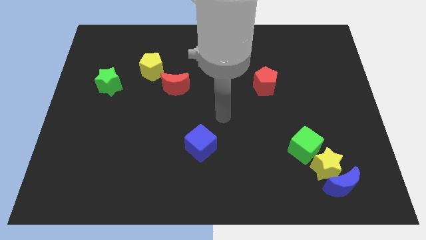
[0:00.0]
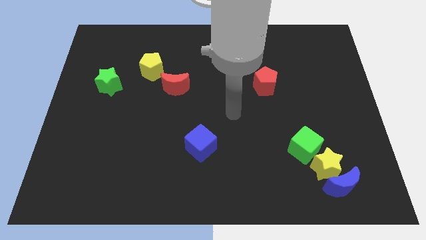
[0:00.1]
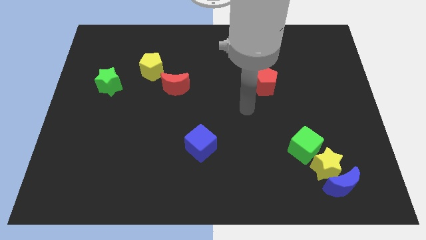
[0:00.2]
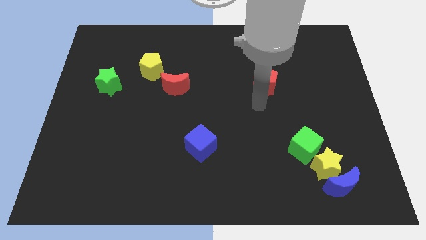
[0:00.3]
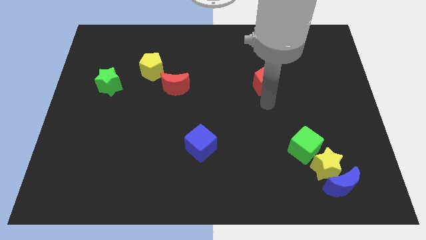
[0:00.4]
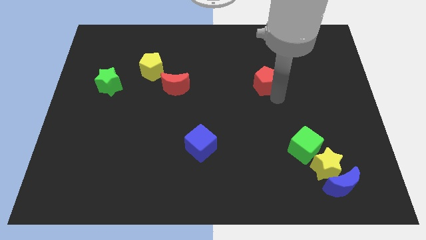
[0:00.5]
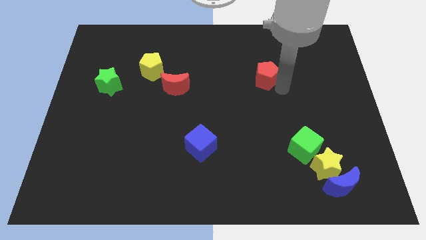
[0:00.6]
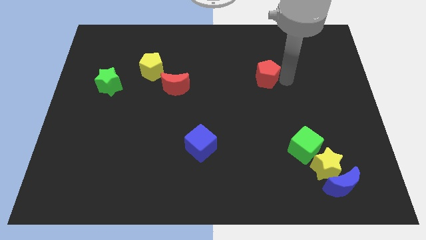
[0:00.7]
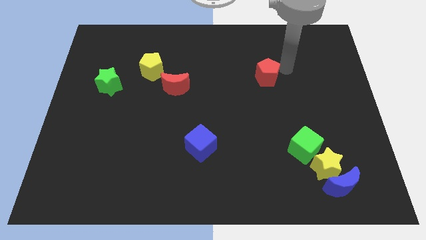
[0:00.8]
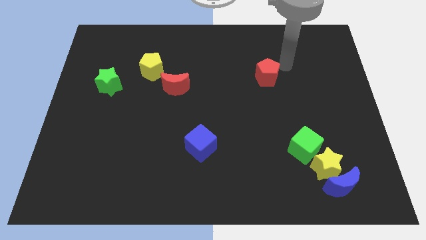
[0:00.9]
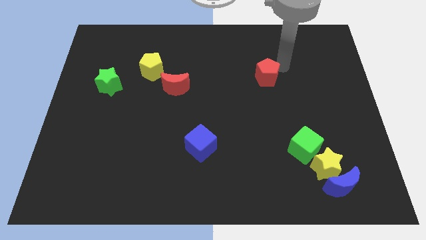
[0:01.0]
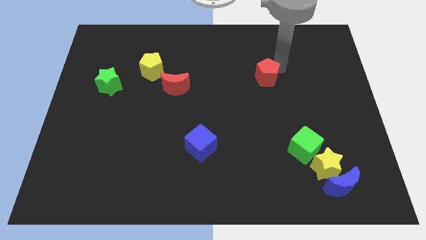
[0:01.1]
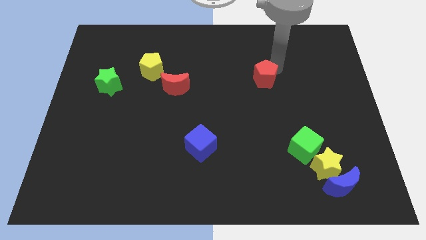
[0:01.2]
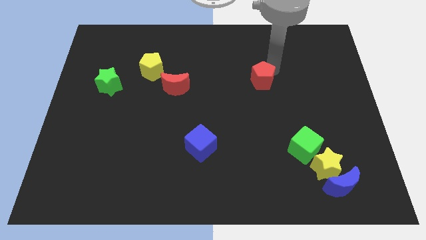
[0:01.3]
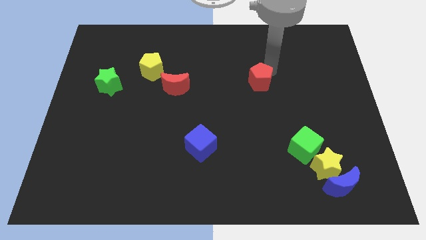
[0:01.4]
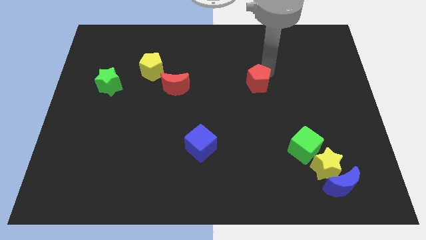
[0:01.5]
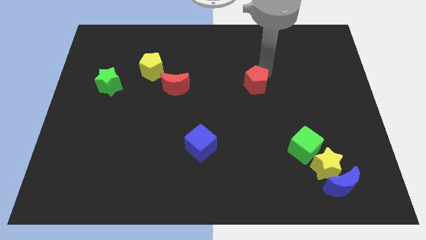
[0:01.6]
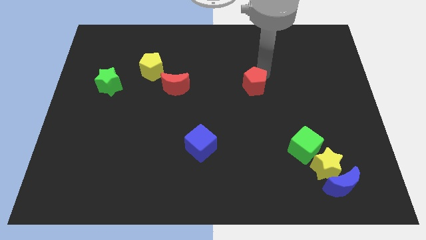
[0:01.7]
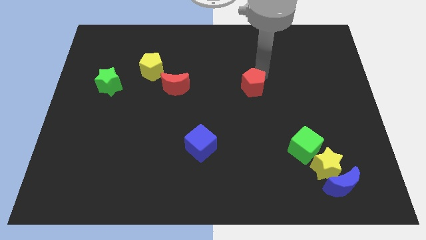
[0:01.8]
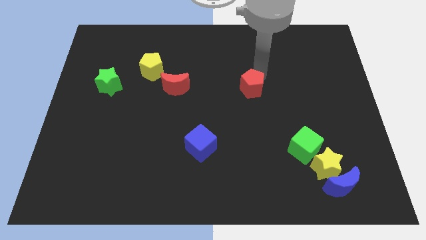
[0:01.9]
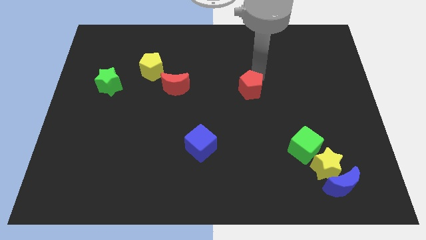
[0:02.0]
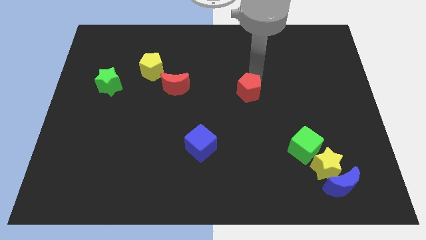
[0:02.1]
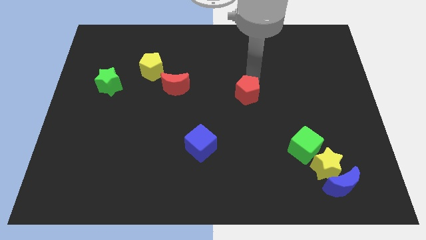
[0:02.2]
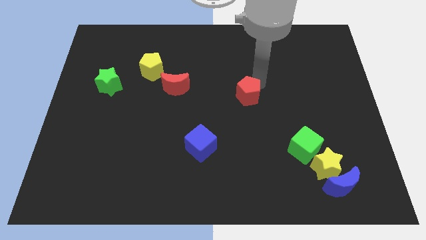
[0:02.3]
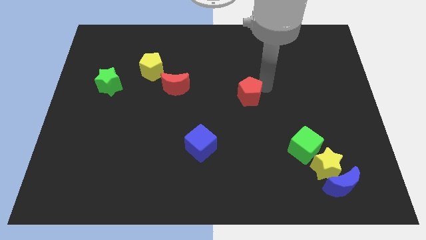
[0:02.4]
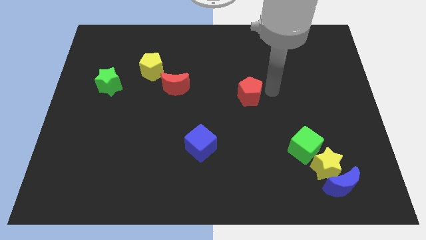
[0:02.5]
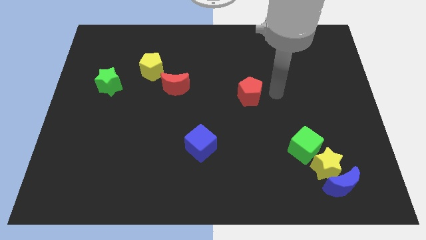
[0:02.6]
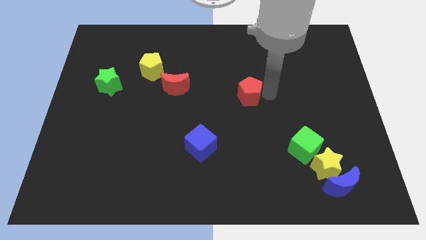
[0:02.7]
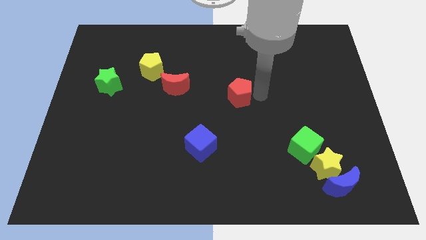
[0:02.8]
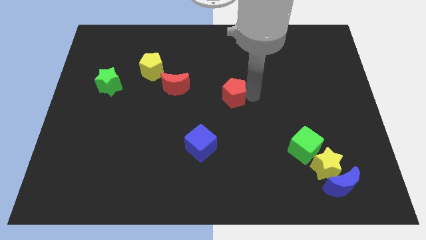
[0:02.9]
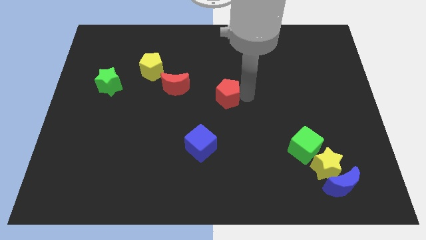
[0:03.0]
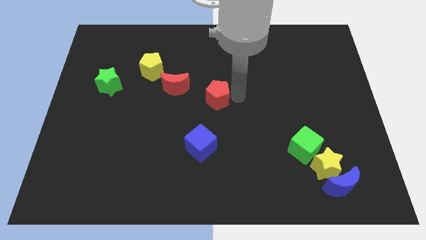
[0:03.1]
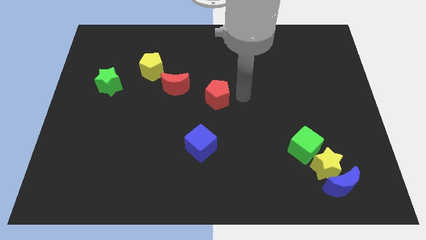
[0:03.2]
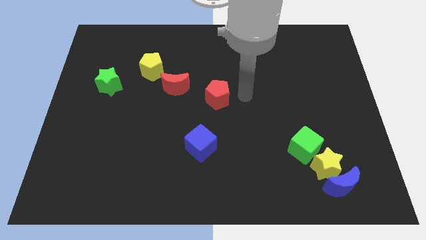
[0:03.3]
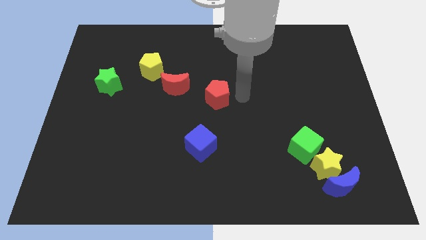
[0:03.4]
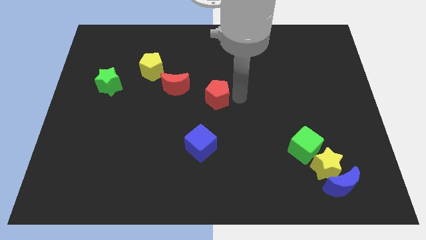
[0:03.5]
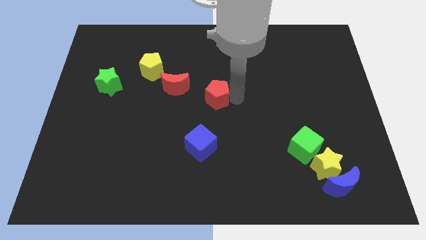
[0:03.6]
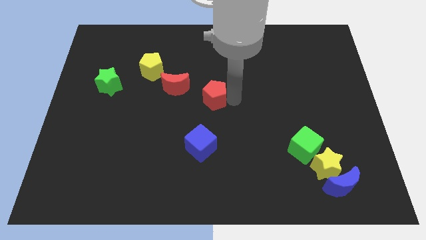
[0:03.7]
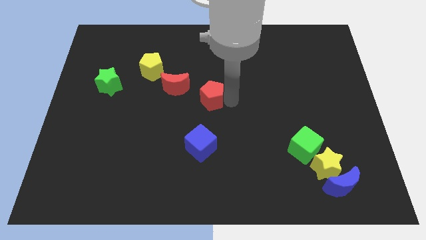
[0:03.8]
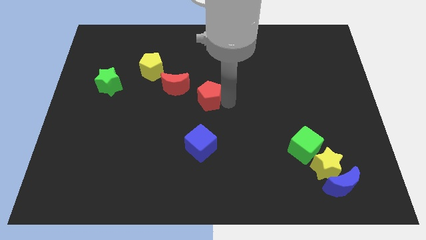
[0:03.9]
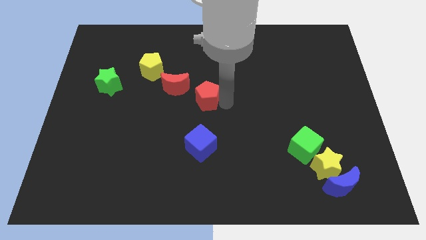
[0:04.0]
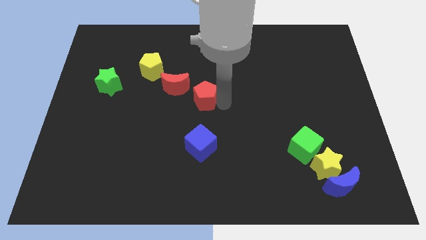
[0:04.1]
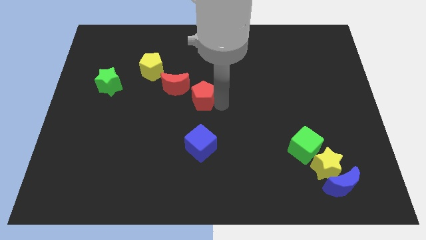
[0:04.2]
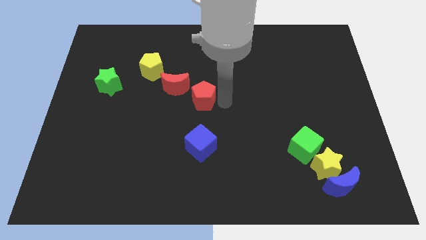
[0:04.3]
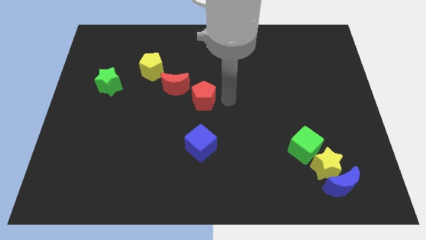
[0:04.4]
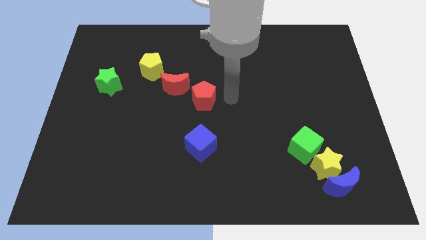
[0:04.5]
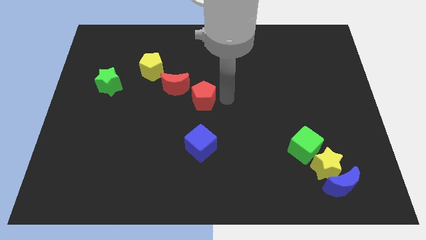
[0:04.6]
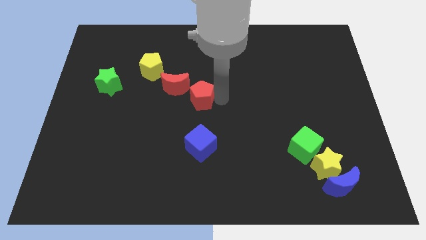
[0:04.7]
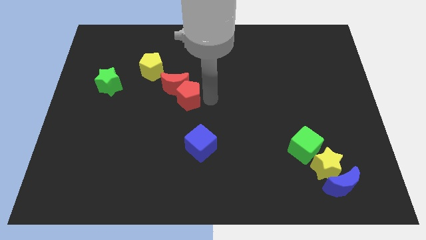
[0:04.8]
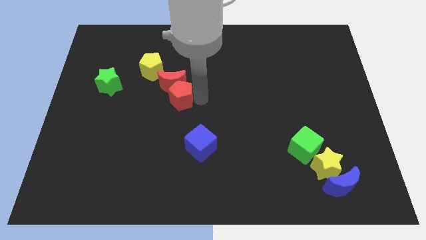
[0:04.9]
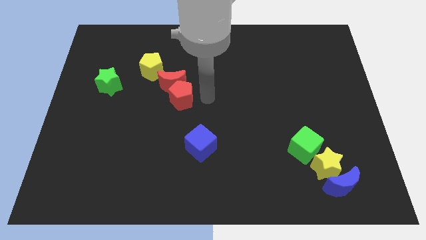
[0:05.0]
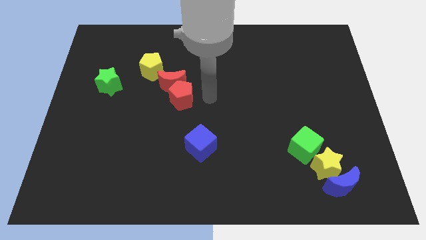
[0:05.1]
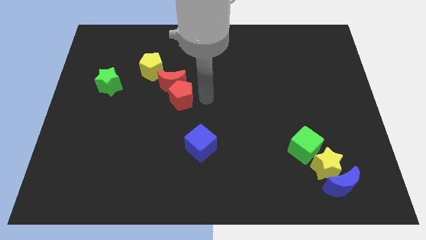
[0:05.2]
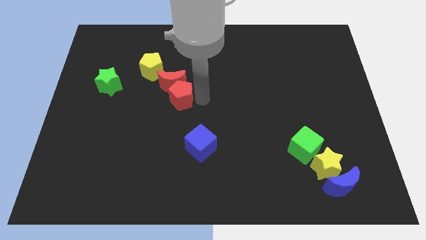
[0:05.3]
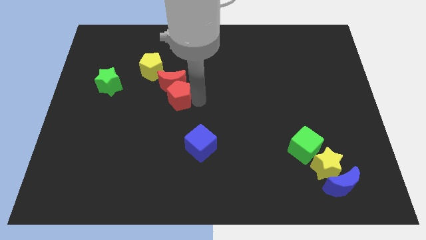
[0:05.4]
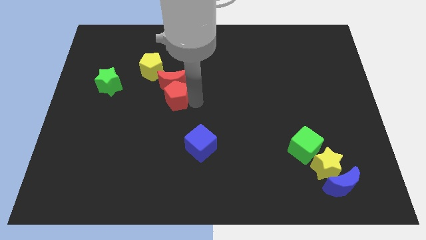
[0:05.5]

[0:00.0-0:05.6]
slide the red pentagon to the bottom left side of the red moon

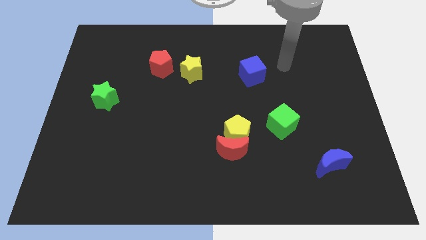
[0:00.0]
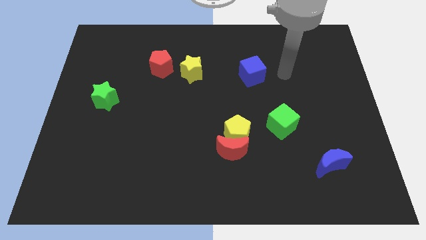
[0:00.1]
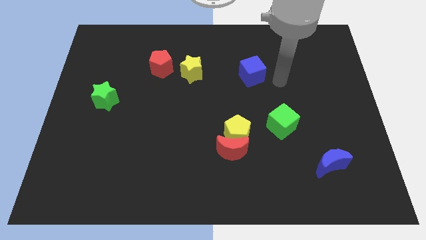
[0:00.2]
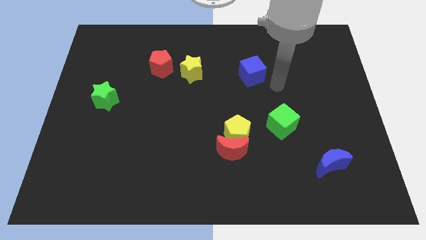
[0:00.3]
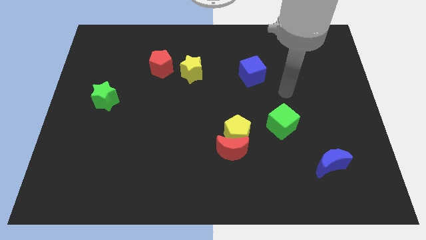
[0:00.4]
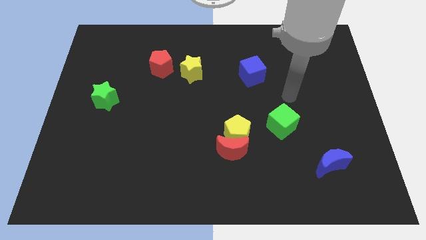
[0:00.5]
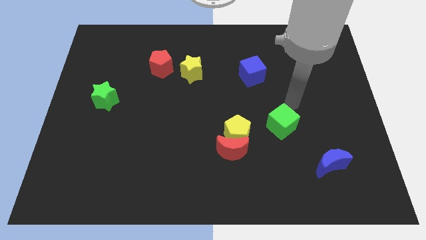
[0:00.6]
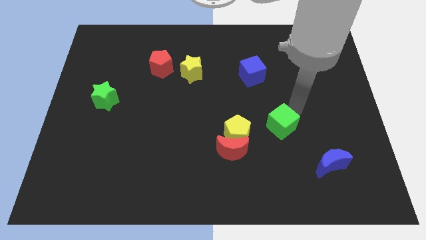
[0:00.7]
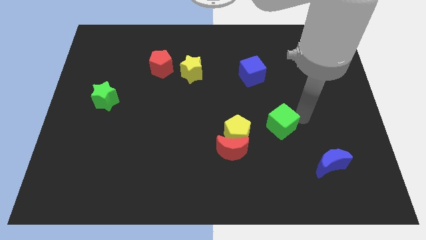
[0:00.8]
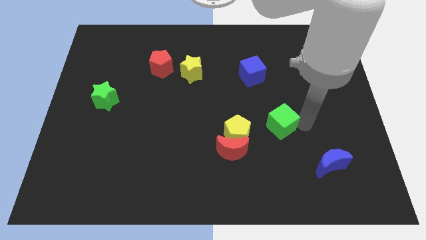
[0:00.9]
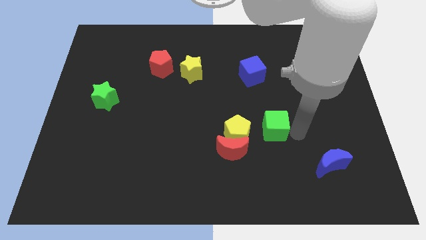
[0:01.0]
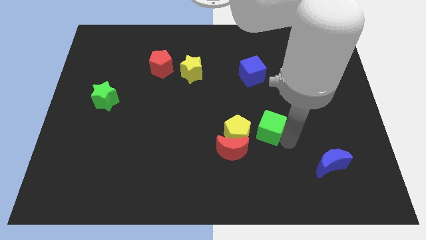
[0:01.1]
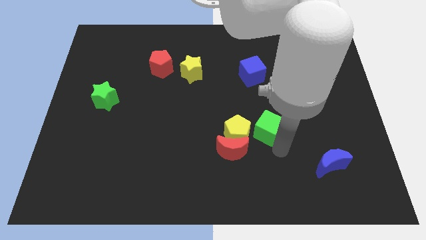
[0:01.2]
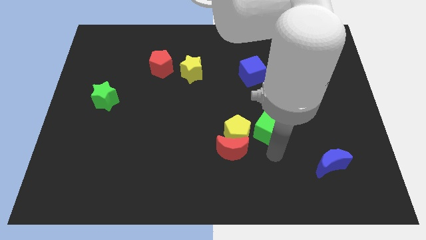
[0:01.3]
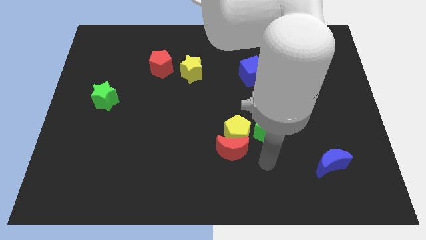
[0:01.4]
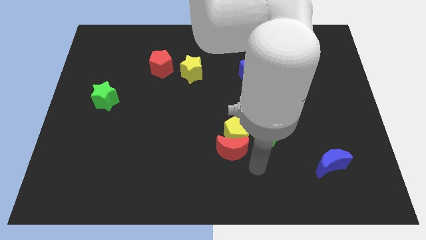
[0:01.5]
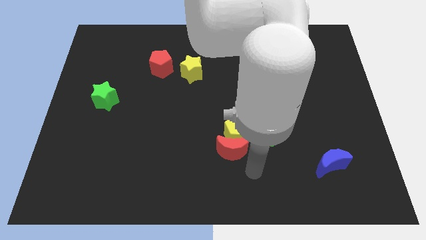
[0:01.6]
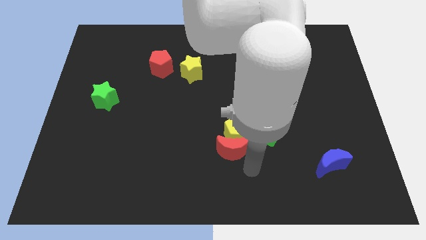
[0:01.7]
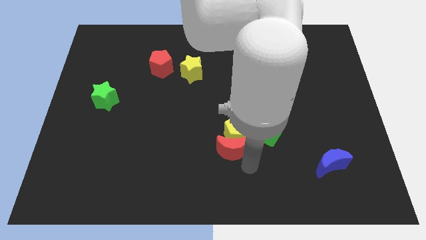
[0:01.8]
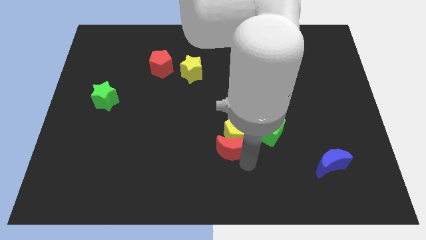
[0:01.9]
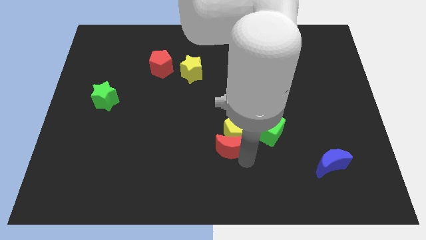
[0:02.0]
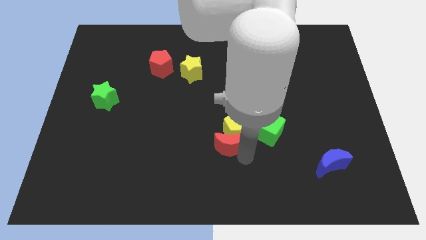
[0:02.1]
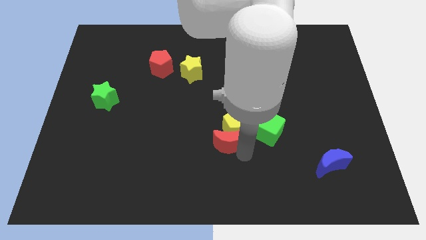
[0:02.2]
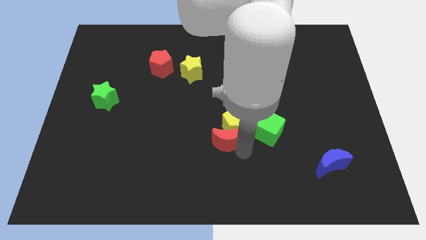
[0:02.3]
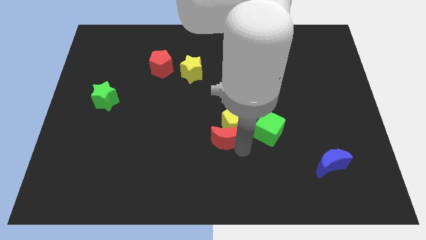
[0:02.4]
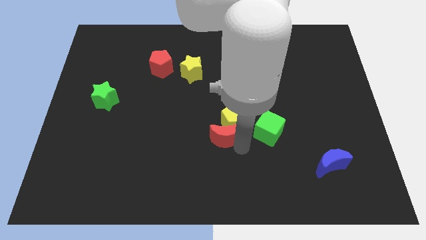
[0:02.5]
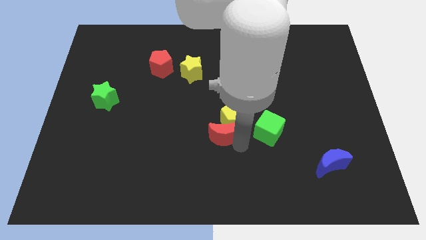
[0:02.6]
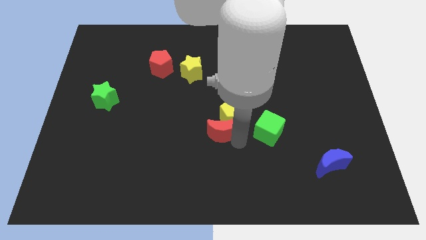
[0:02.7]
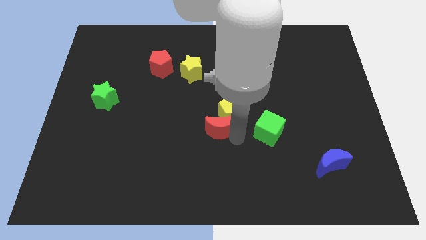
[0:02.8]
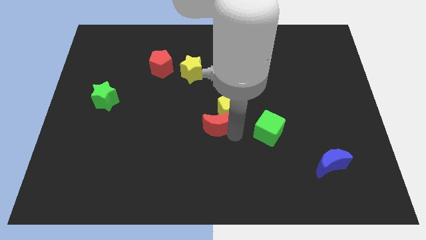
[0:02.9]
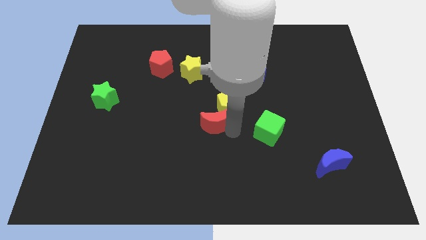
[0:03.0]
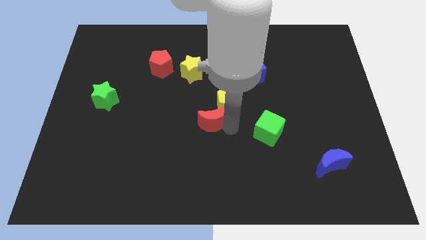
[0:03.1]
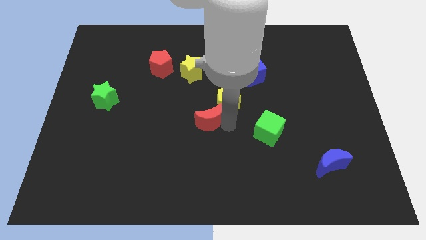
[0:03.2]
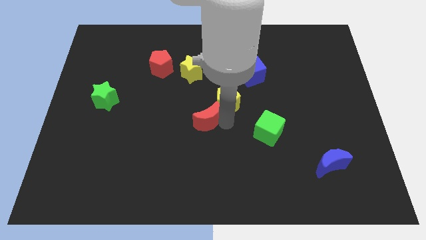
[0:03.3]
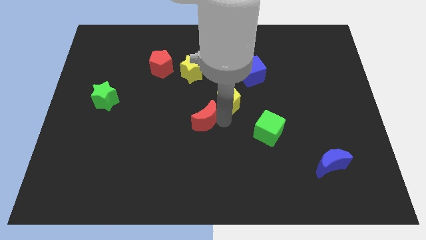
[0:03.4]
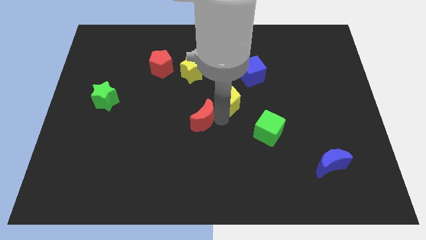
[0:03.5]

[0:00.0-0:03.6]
push the red moon to the bottom of the yellow star
